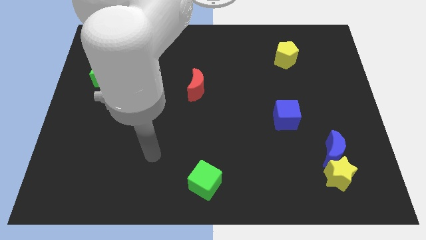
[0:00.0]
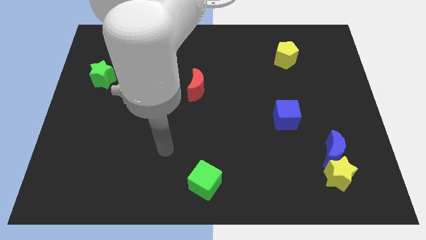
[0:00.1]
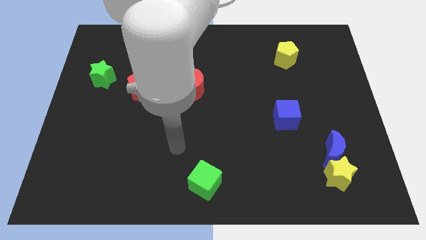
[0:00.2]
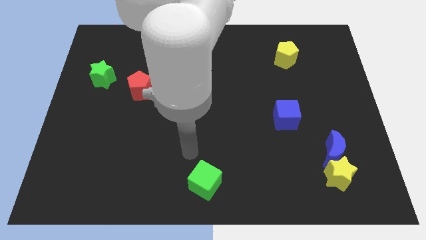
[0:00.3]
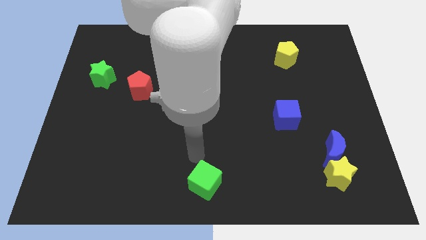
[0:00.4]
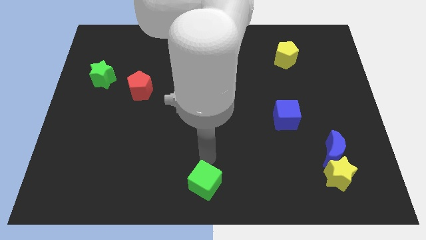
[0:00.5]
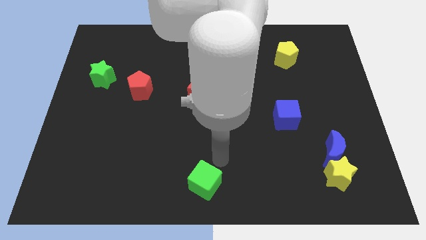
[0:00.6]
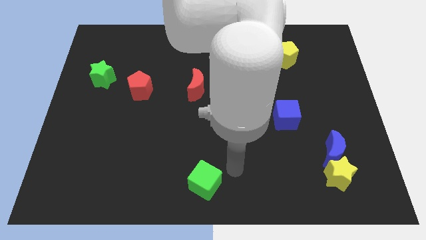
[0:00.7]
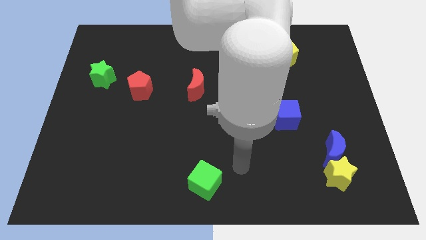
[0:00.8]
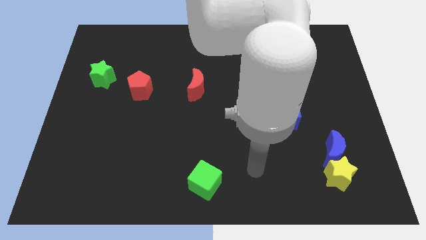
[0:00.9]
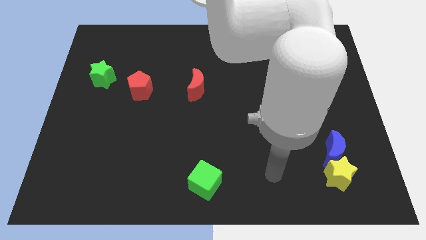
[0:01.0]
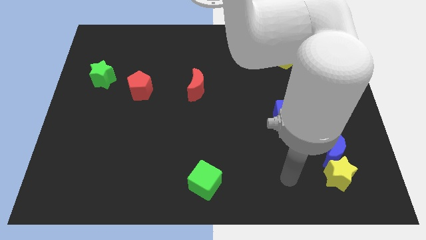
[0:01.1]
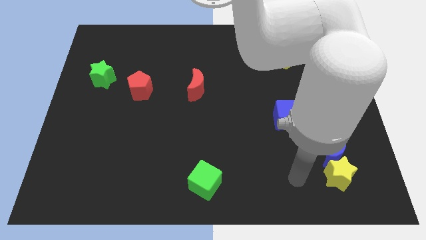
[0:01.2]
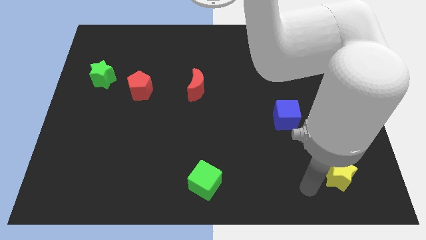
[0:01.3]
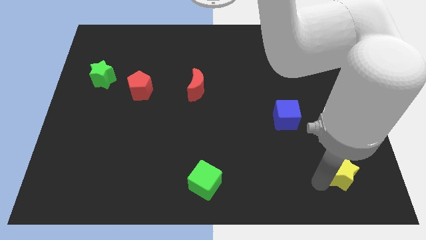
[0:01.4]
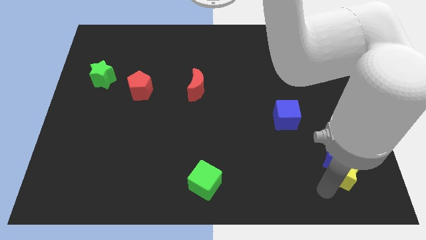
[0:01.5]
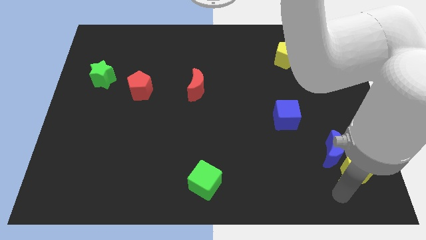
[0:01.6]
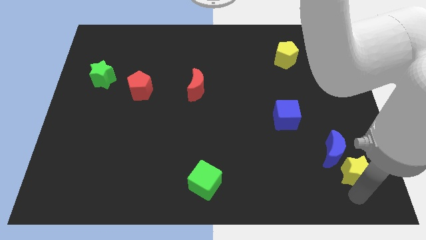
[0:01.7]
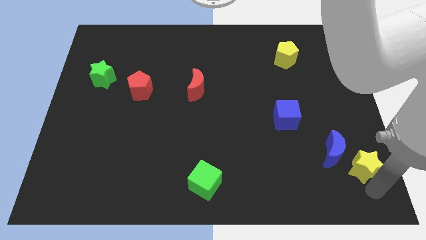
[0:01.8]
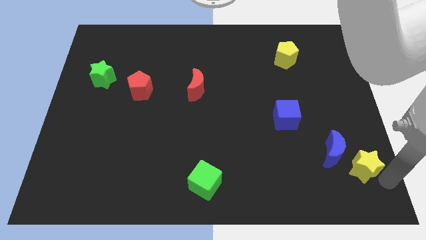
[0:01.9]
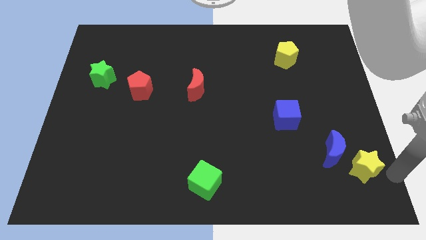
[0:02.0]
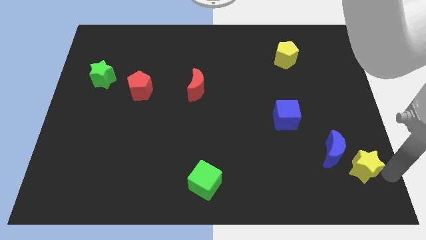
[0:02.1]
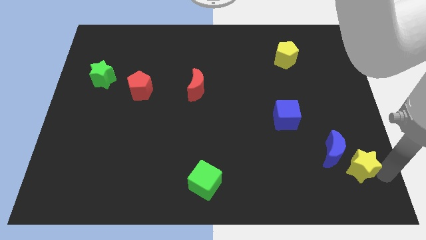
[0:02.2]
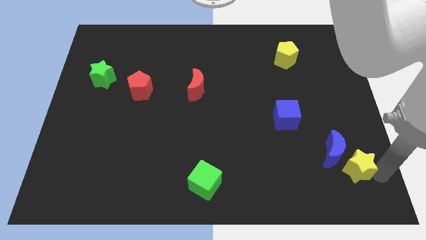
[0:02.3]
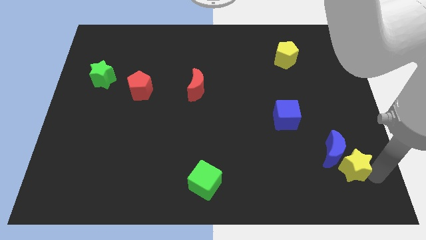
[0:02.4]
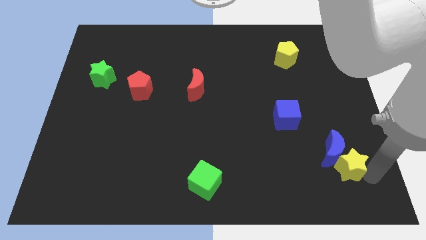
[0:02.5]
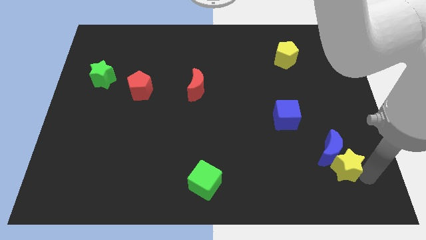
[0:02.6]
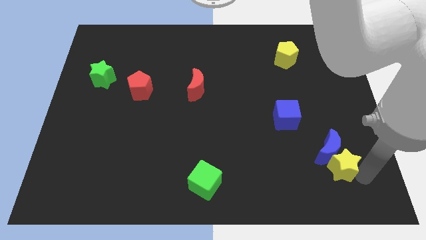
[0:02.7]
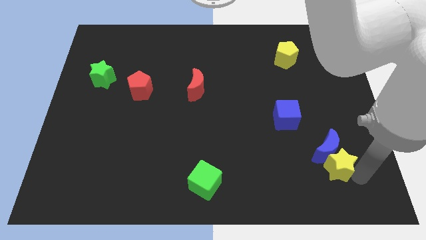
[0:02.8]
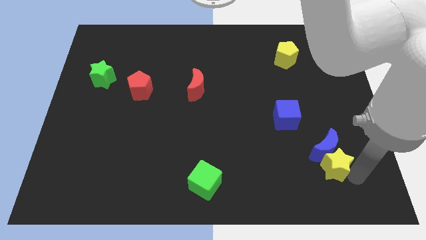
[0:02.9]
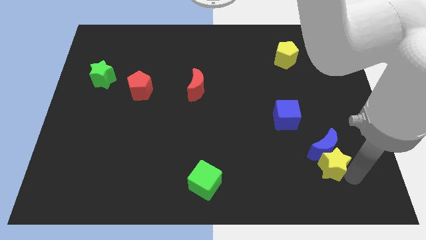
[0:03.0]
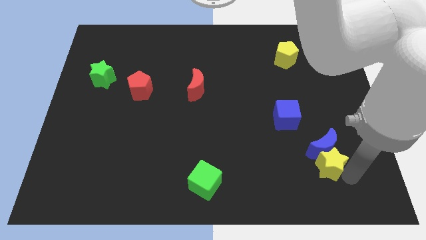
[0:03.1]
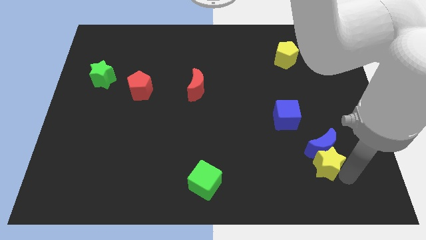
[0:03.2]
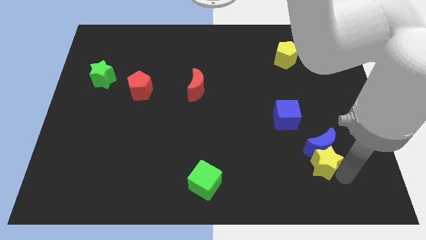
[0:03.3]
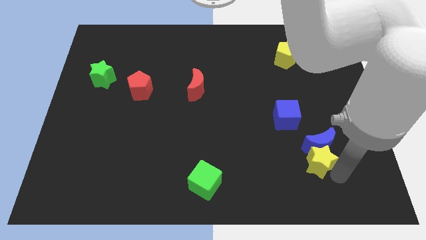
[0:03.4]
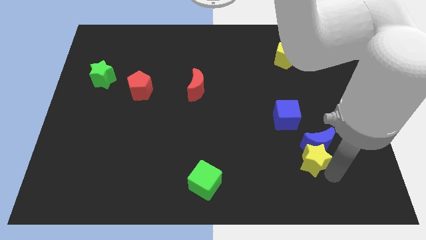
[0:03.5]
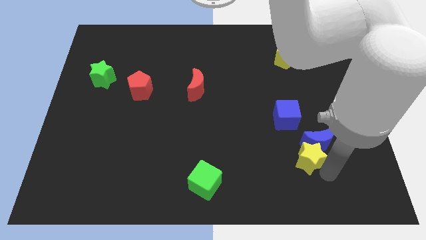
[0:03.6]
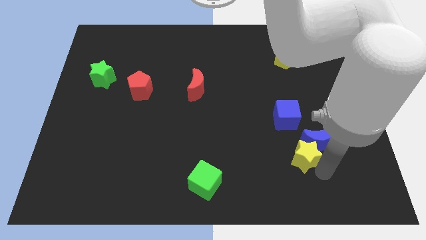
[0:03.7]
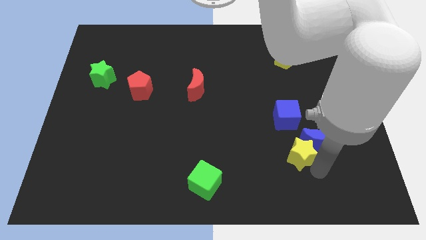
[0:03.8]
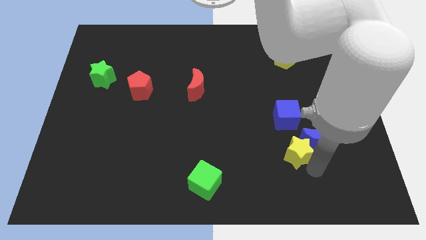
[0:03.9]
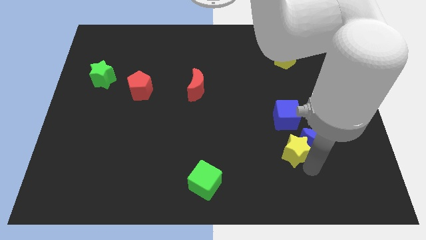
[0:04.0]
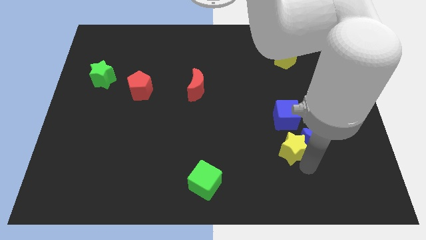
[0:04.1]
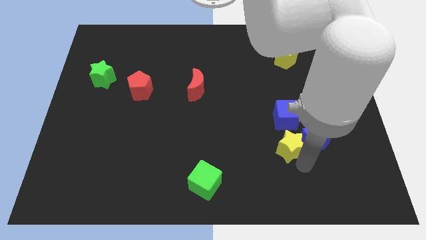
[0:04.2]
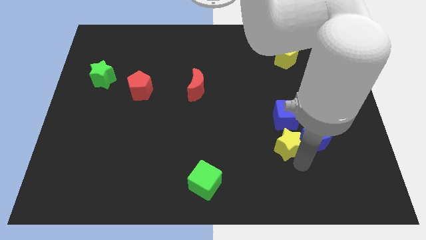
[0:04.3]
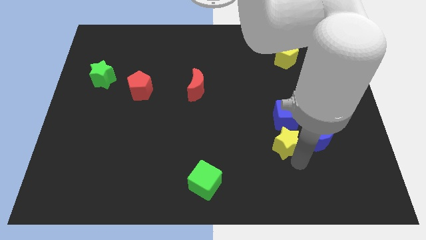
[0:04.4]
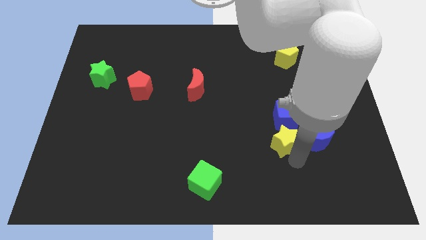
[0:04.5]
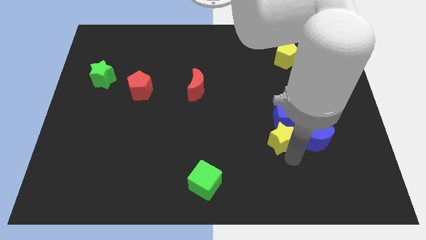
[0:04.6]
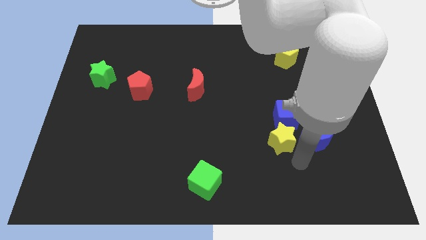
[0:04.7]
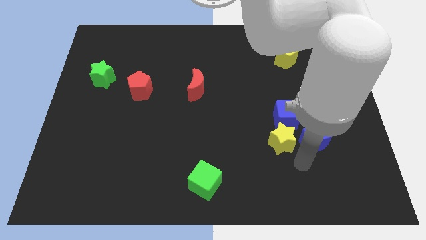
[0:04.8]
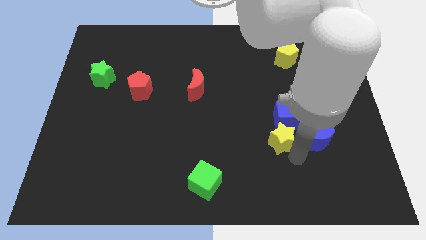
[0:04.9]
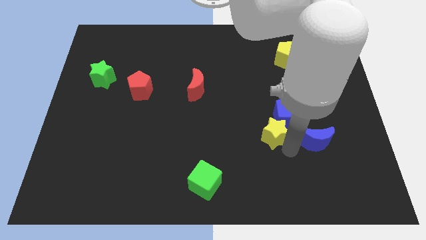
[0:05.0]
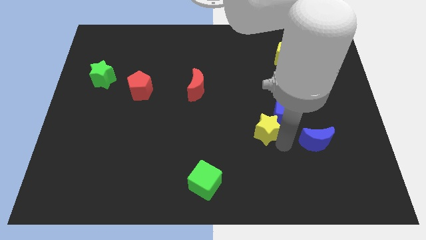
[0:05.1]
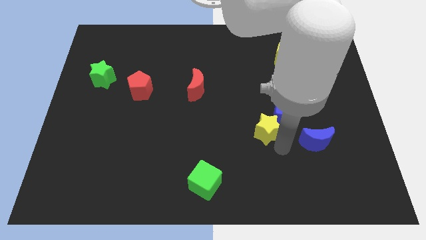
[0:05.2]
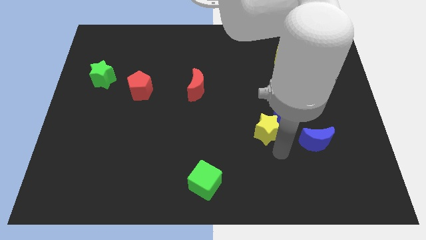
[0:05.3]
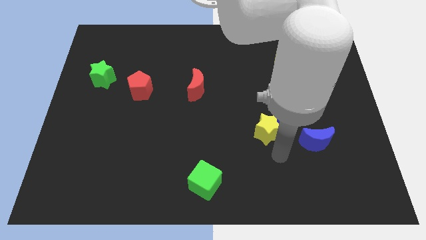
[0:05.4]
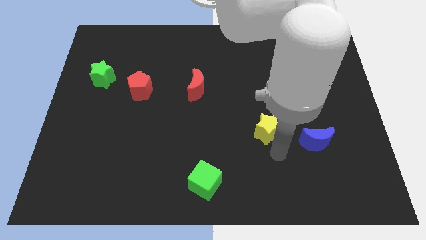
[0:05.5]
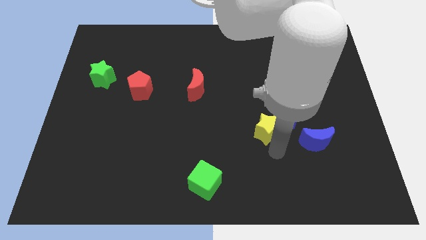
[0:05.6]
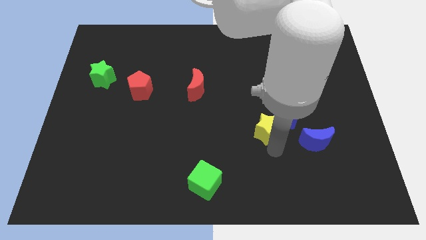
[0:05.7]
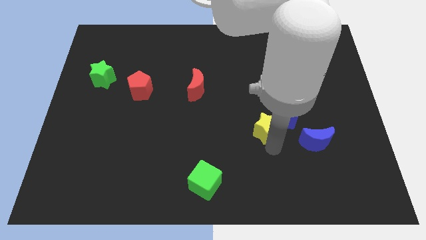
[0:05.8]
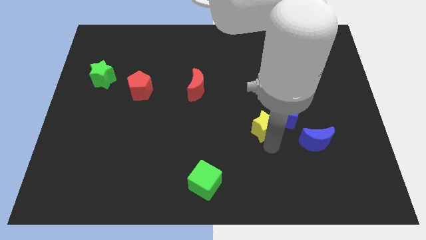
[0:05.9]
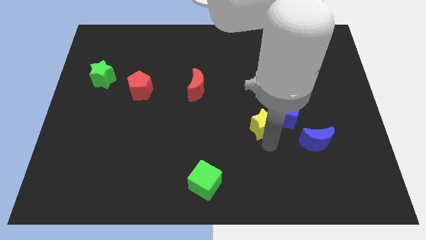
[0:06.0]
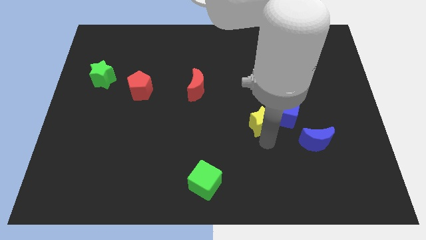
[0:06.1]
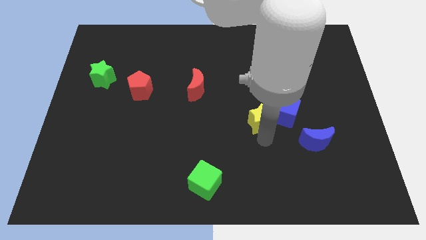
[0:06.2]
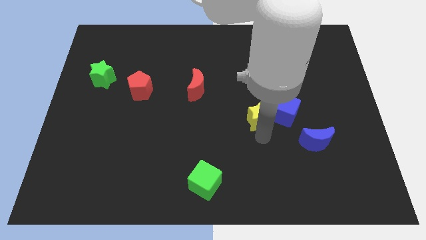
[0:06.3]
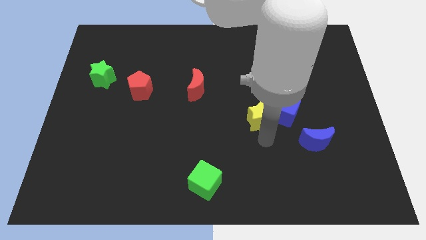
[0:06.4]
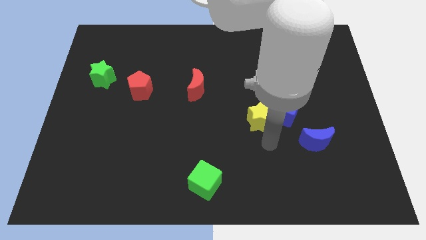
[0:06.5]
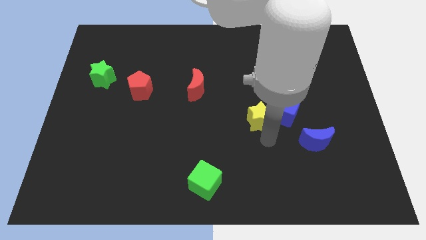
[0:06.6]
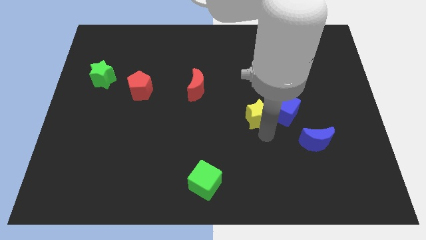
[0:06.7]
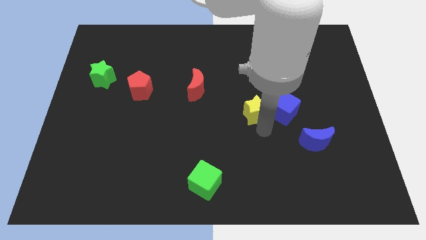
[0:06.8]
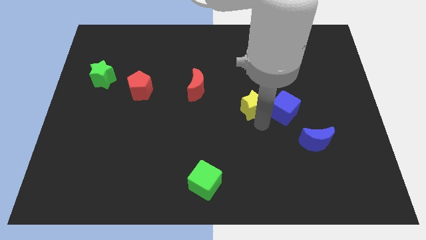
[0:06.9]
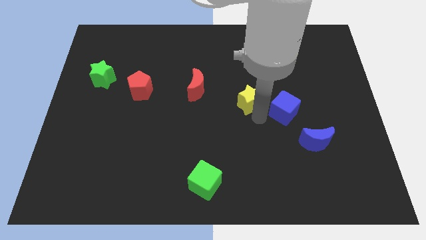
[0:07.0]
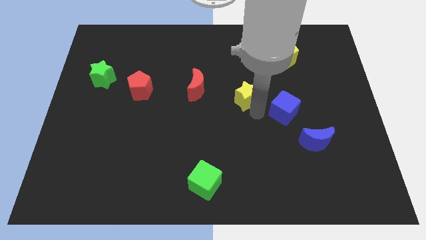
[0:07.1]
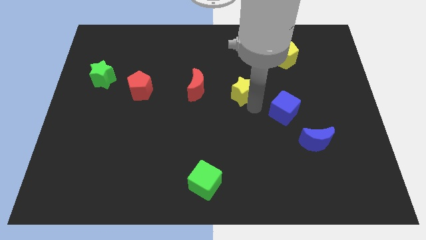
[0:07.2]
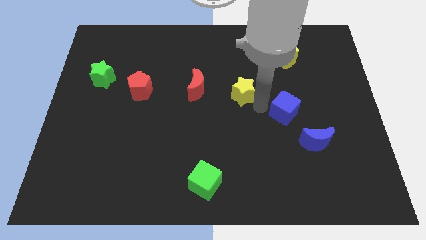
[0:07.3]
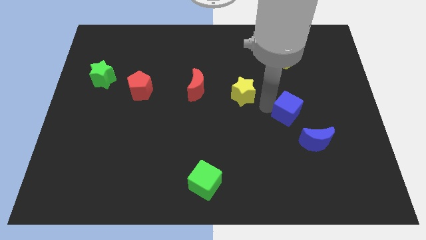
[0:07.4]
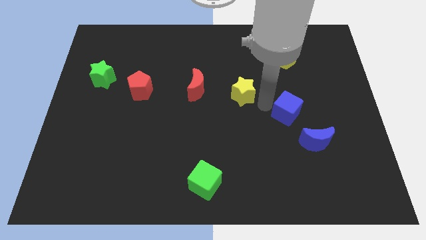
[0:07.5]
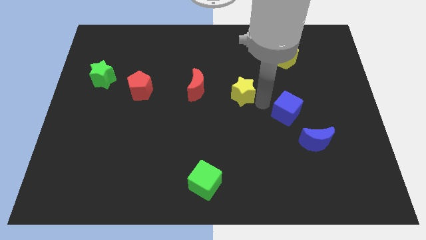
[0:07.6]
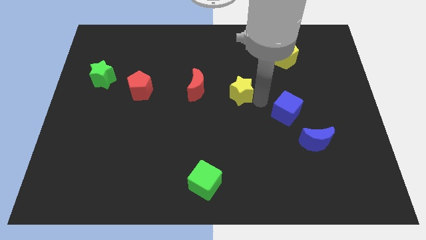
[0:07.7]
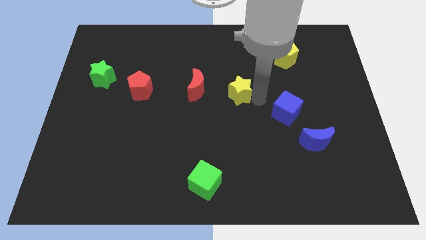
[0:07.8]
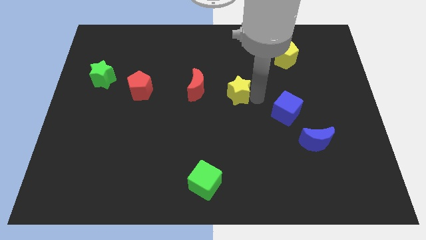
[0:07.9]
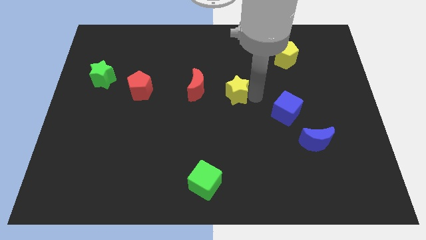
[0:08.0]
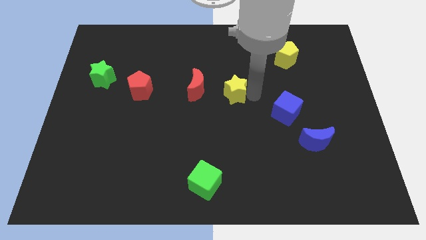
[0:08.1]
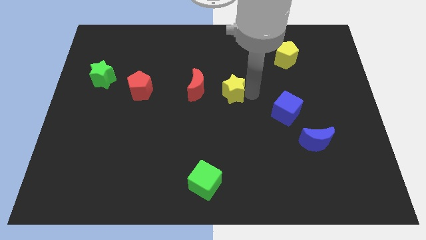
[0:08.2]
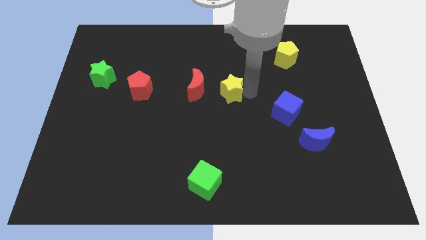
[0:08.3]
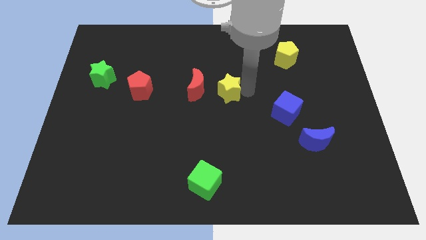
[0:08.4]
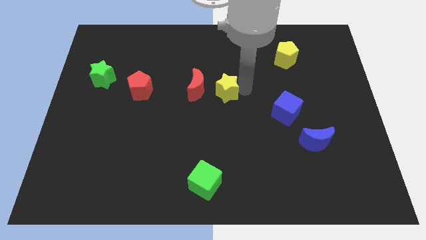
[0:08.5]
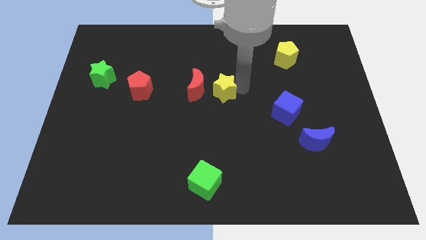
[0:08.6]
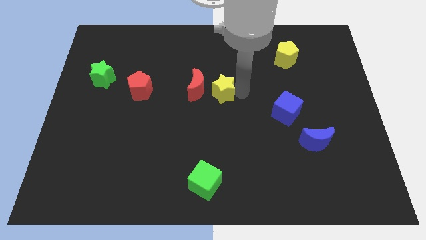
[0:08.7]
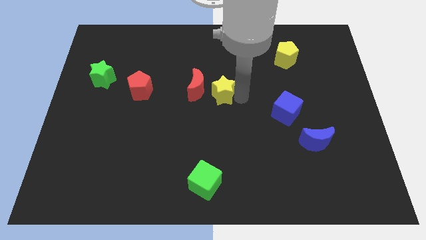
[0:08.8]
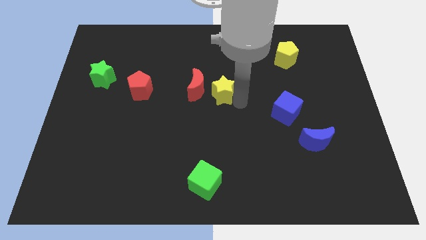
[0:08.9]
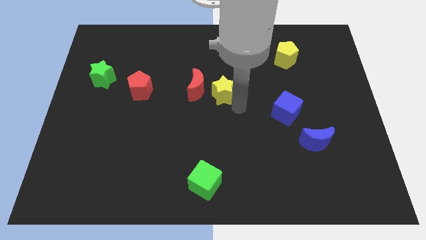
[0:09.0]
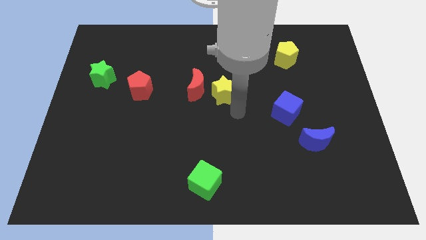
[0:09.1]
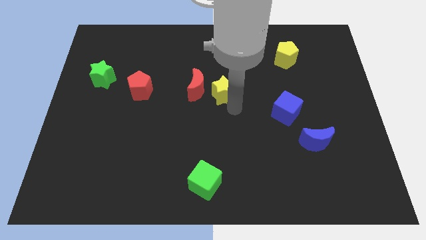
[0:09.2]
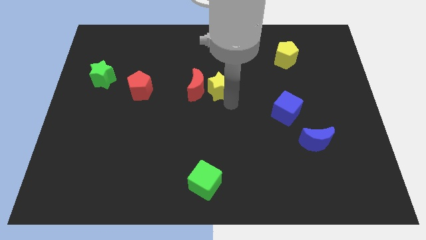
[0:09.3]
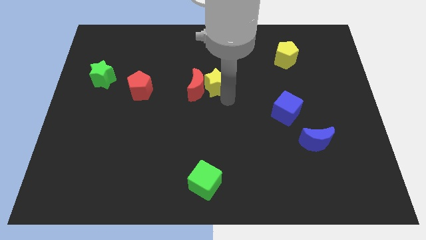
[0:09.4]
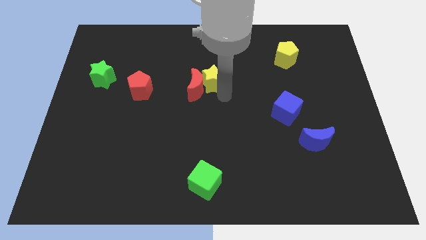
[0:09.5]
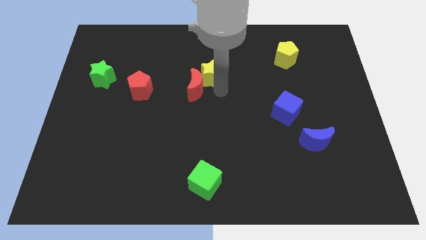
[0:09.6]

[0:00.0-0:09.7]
move the yellow star to the top side of the red moon
